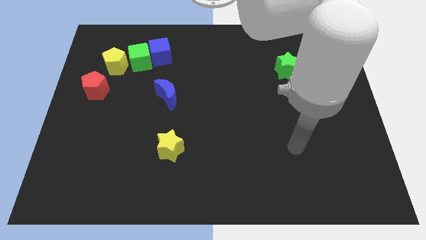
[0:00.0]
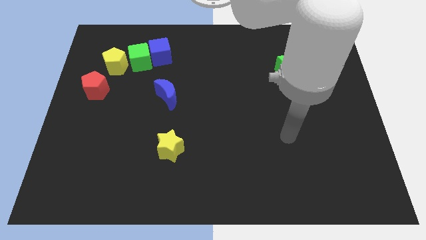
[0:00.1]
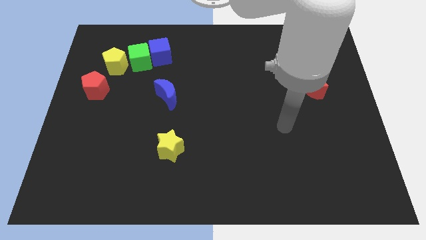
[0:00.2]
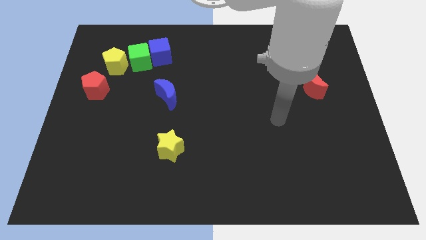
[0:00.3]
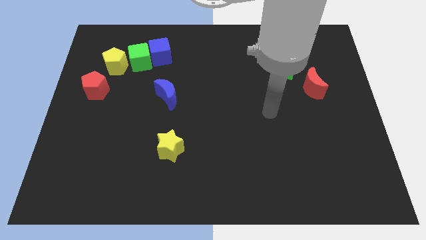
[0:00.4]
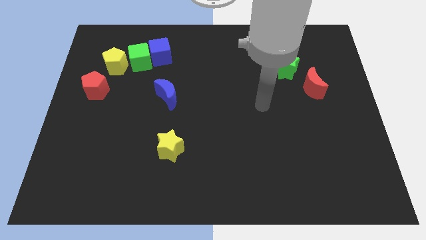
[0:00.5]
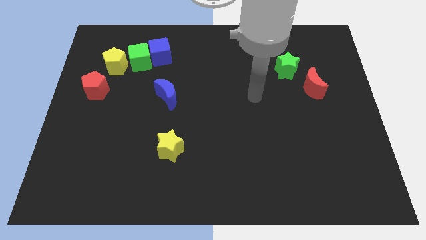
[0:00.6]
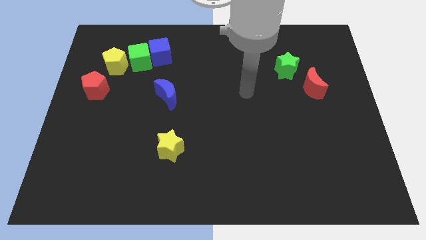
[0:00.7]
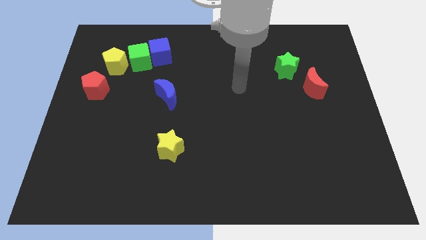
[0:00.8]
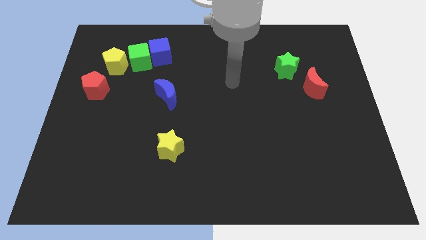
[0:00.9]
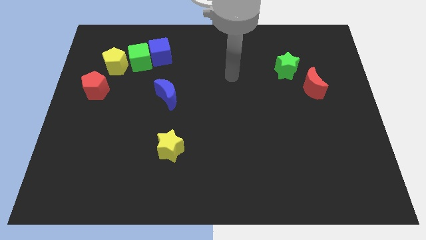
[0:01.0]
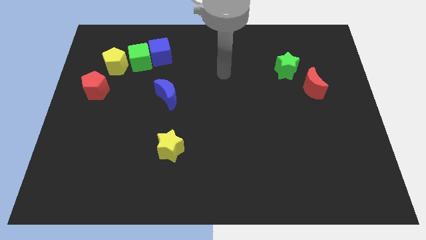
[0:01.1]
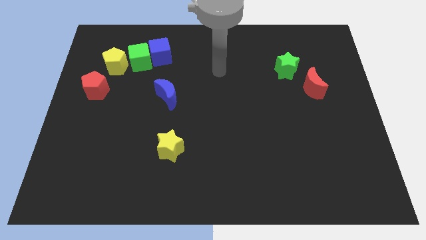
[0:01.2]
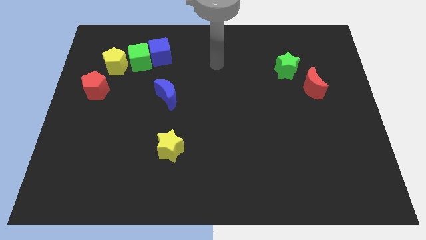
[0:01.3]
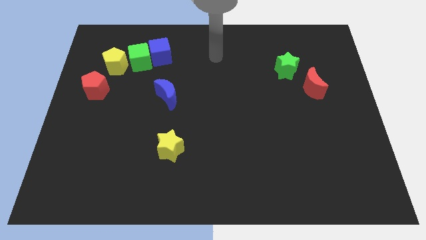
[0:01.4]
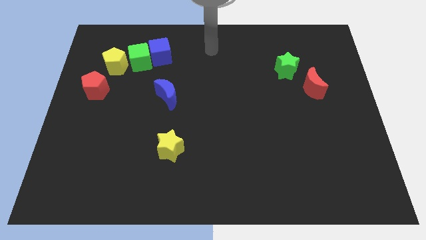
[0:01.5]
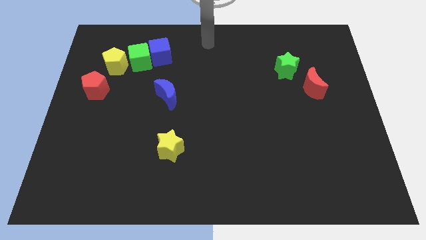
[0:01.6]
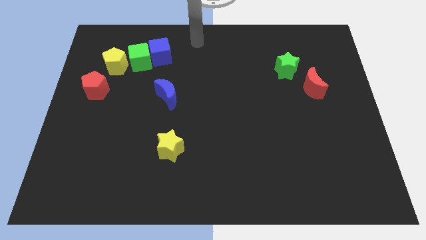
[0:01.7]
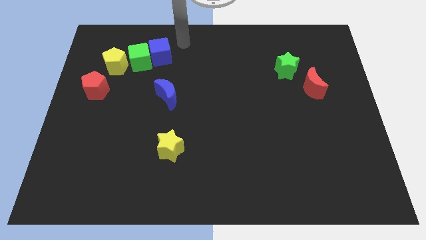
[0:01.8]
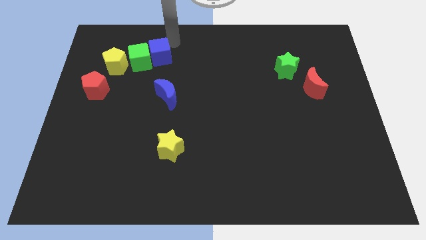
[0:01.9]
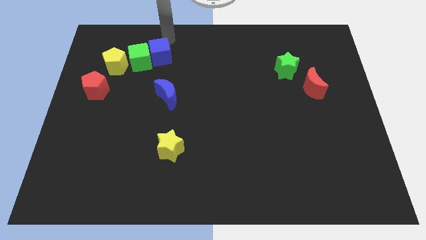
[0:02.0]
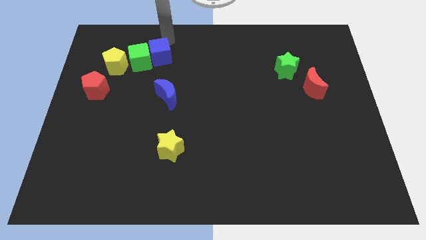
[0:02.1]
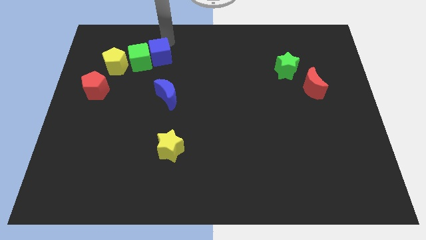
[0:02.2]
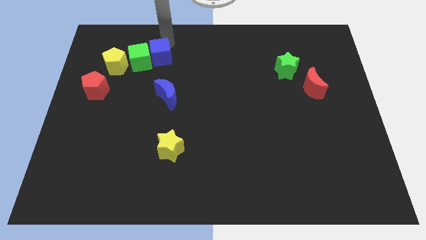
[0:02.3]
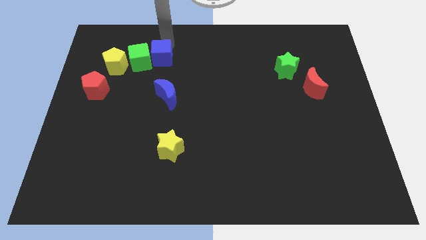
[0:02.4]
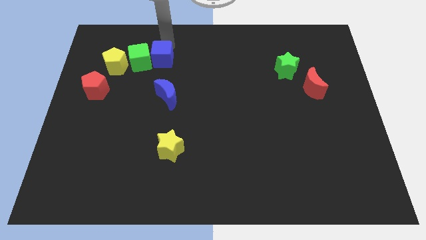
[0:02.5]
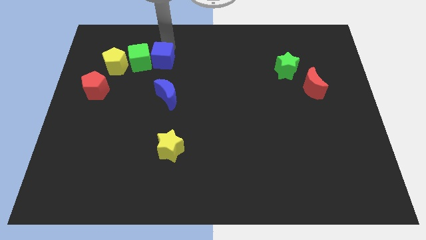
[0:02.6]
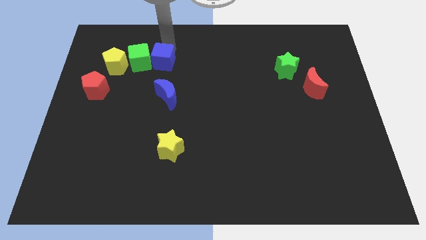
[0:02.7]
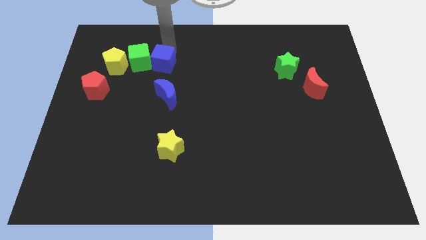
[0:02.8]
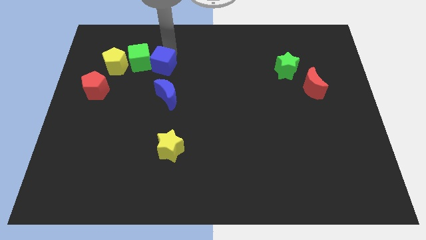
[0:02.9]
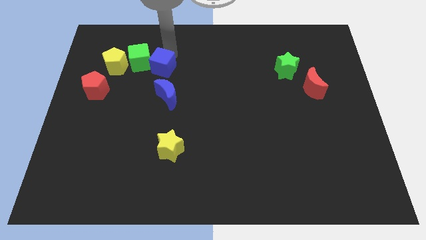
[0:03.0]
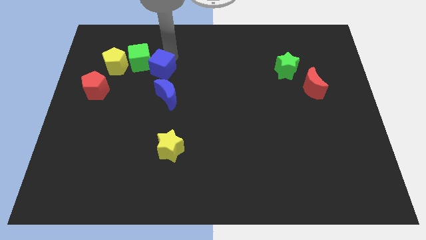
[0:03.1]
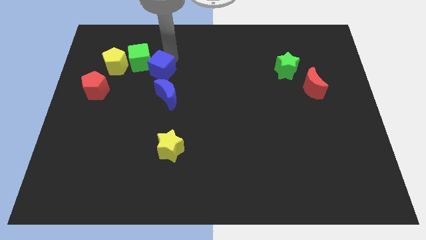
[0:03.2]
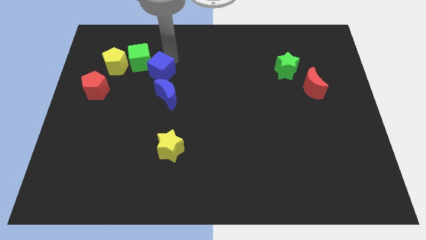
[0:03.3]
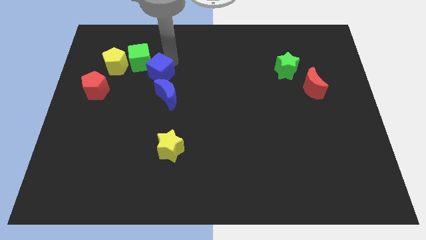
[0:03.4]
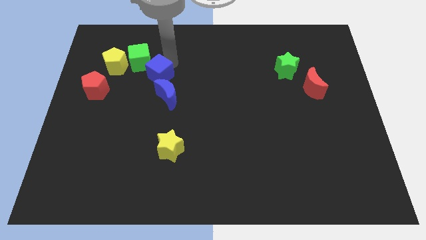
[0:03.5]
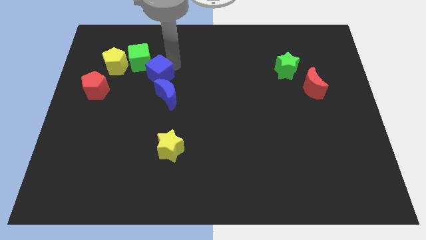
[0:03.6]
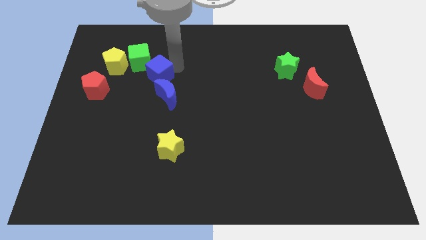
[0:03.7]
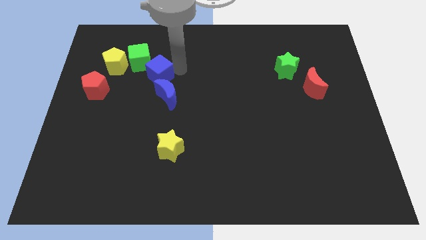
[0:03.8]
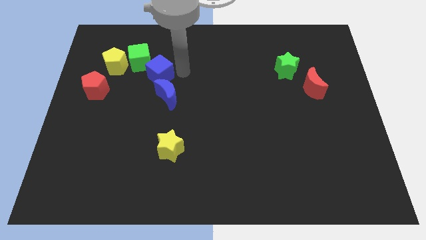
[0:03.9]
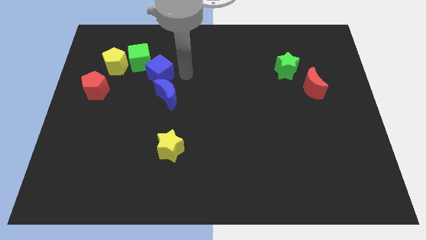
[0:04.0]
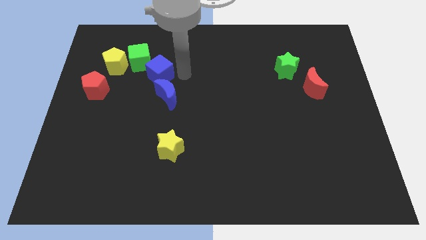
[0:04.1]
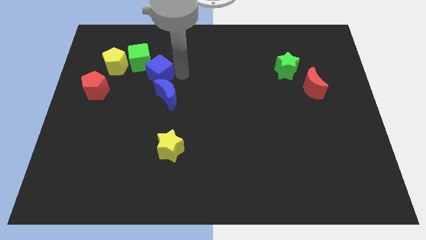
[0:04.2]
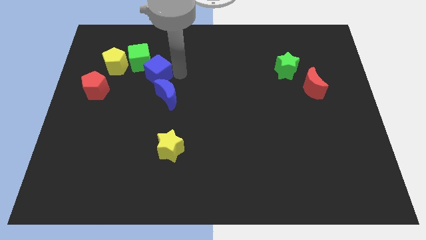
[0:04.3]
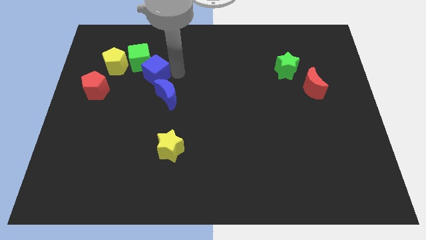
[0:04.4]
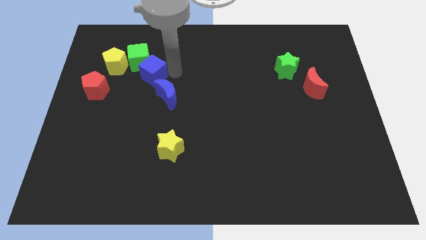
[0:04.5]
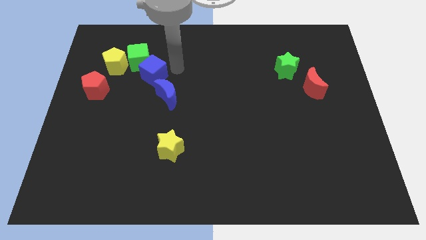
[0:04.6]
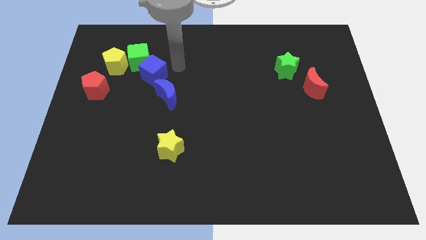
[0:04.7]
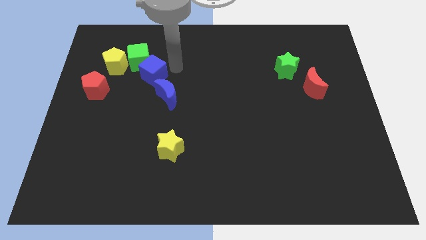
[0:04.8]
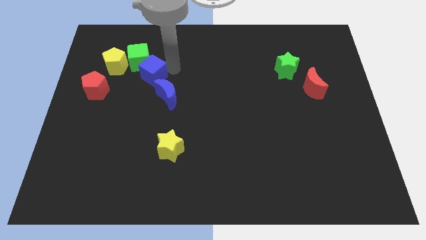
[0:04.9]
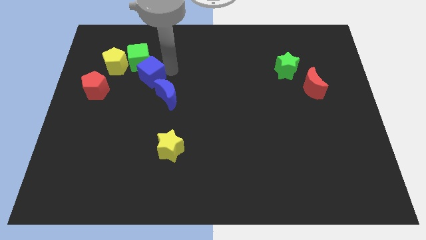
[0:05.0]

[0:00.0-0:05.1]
put the blue cube diagonally down and to the right of the yellow pentagon

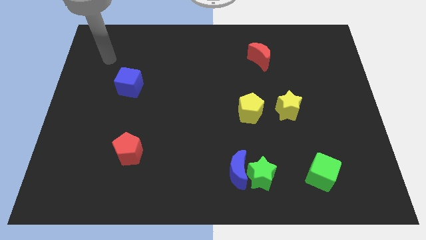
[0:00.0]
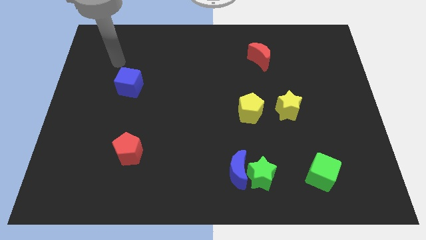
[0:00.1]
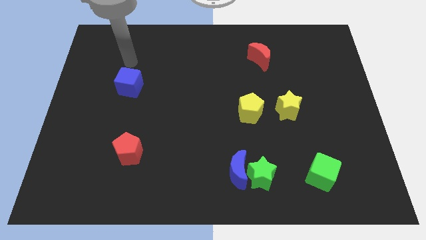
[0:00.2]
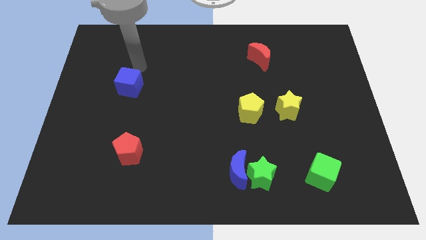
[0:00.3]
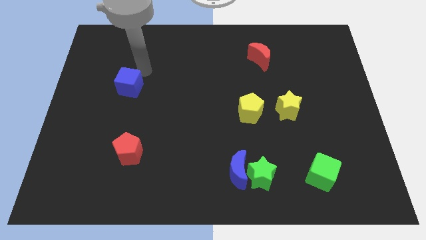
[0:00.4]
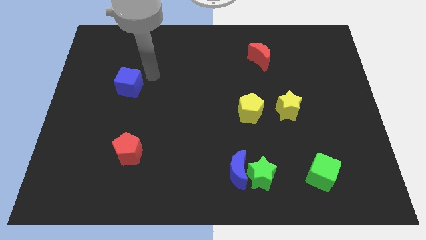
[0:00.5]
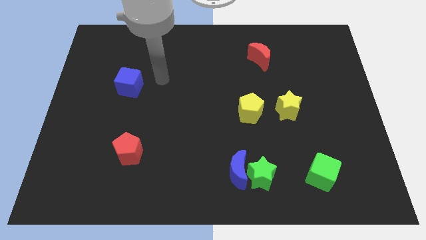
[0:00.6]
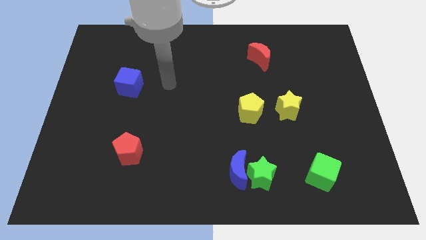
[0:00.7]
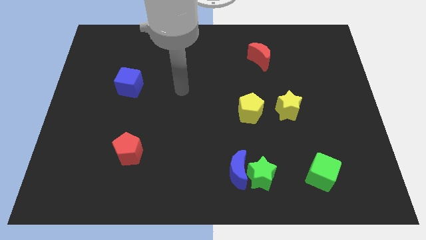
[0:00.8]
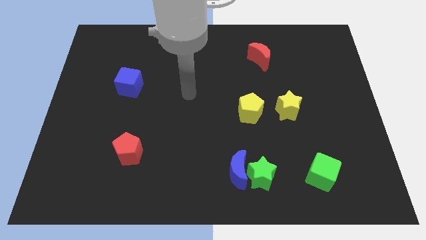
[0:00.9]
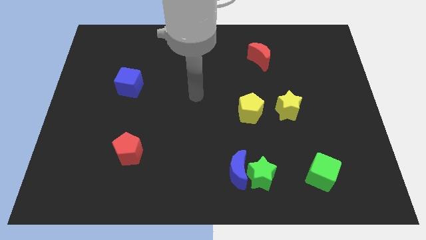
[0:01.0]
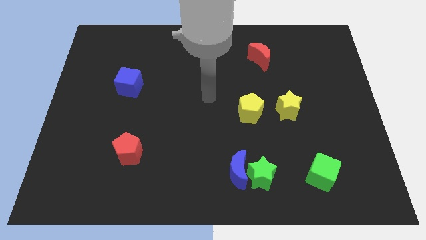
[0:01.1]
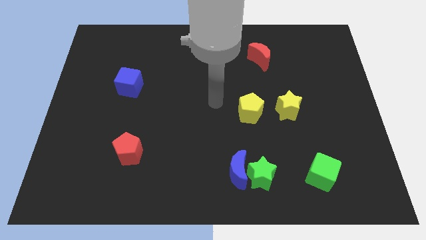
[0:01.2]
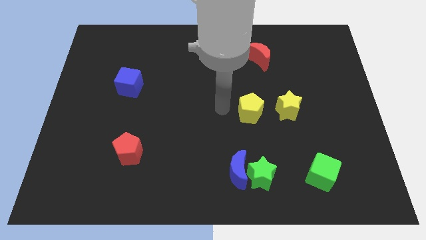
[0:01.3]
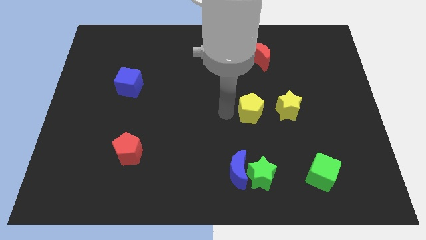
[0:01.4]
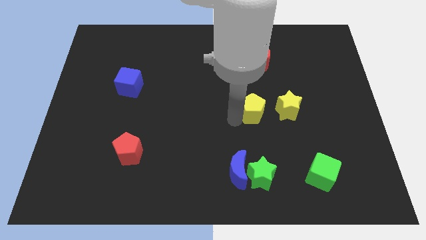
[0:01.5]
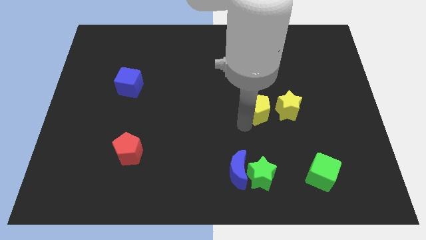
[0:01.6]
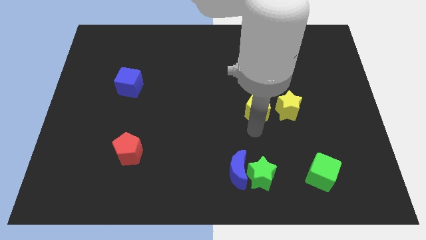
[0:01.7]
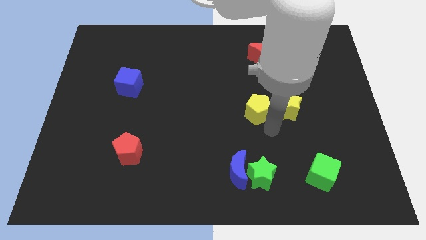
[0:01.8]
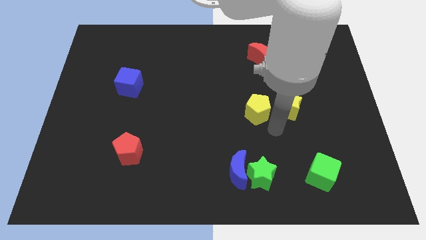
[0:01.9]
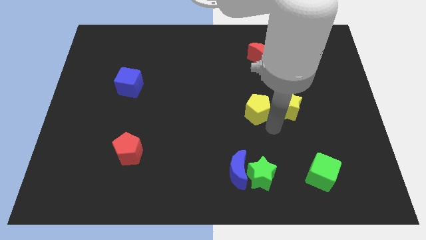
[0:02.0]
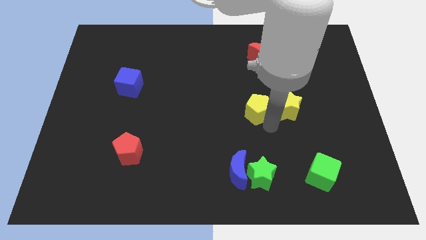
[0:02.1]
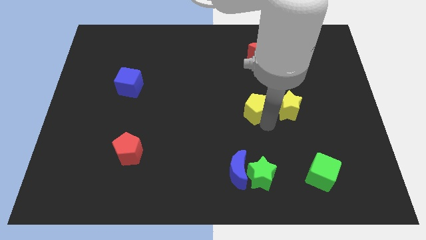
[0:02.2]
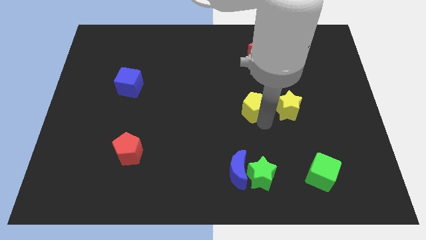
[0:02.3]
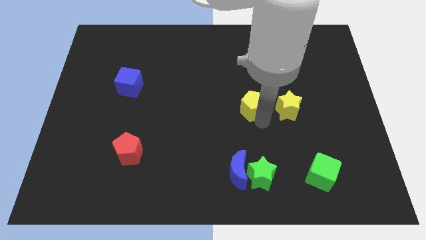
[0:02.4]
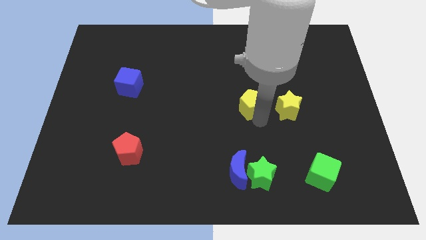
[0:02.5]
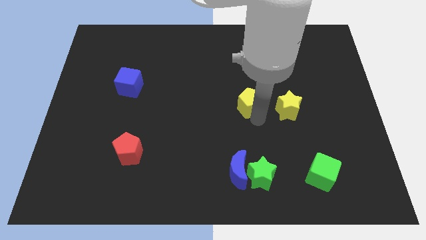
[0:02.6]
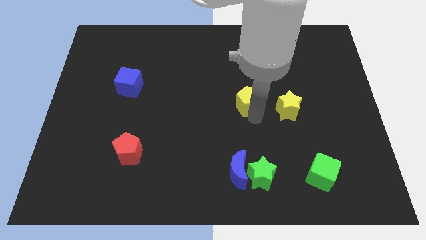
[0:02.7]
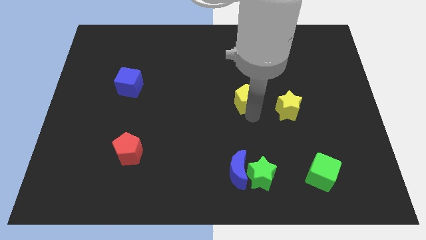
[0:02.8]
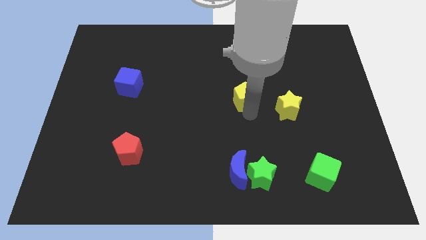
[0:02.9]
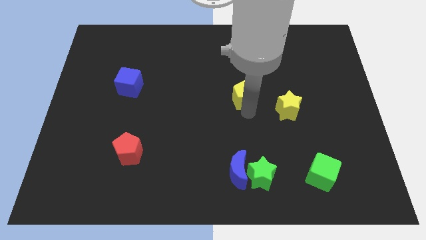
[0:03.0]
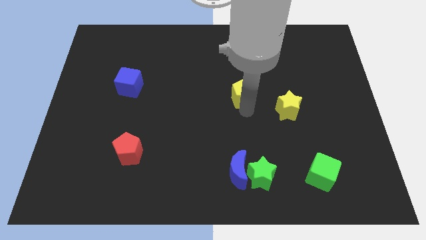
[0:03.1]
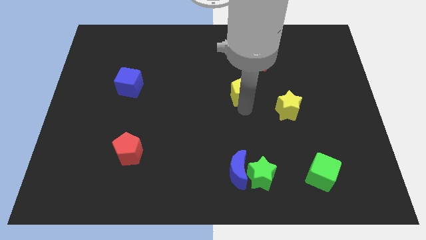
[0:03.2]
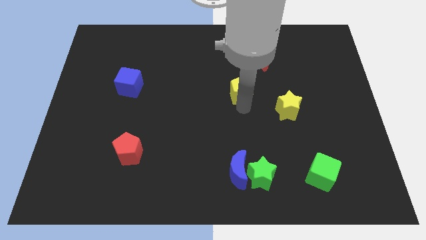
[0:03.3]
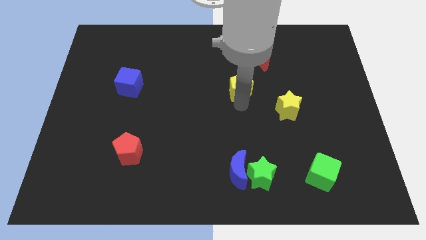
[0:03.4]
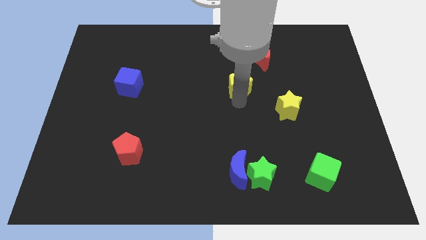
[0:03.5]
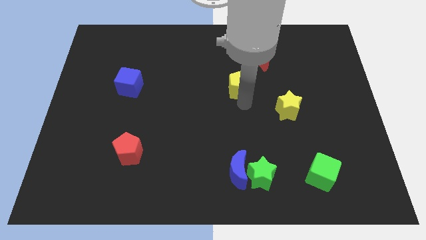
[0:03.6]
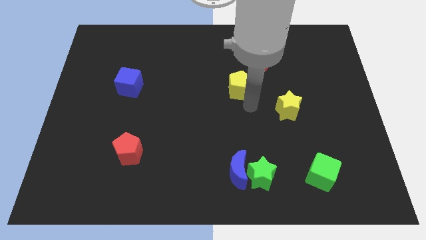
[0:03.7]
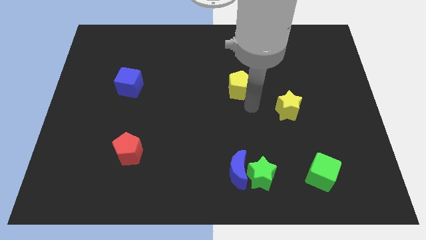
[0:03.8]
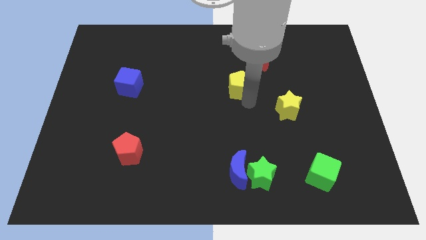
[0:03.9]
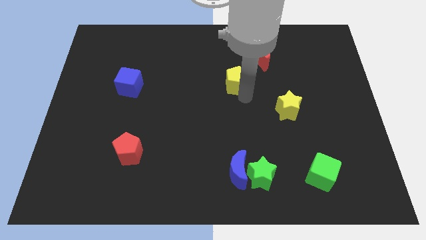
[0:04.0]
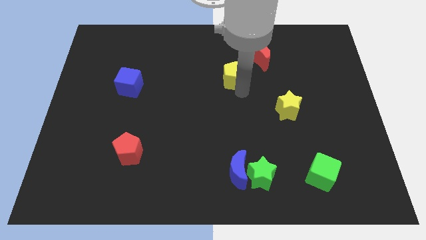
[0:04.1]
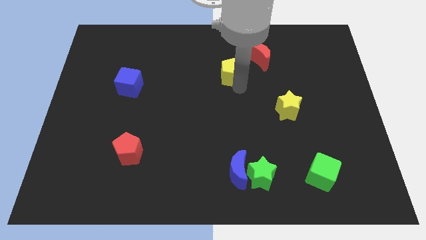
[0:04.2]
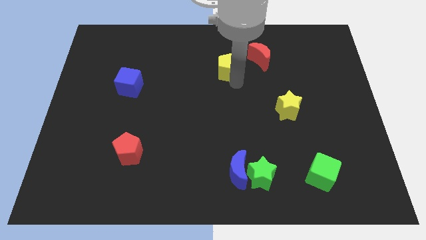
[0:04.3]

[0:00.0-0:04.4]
slide the yellow pentagon to the left of the red moon
